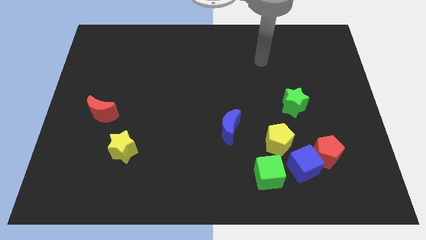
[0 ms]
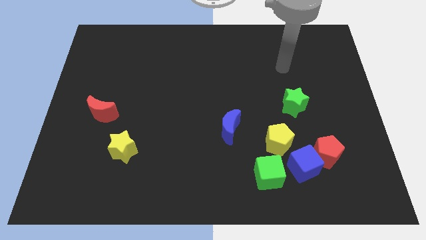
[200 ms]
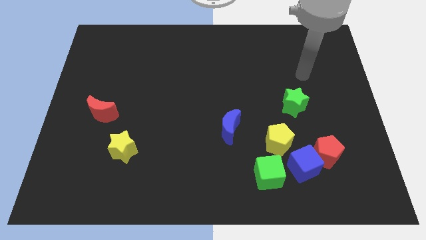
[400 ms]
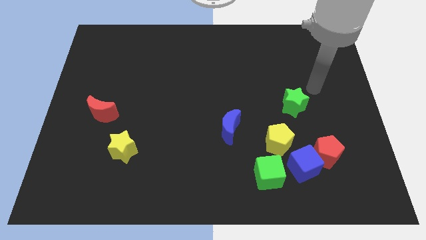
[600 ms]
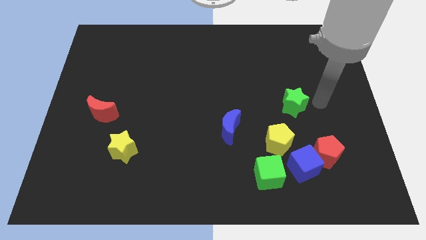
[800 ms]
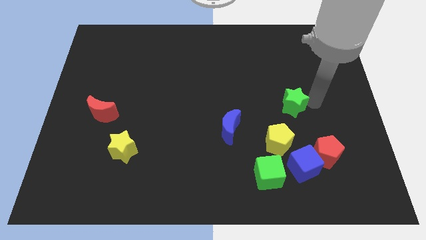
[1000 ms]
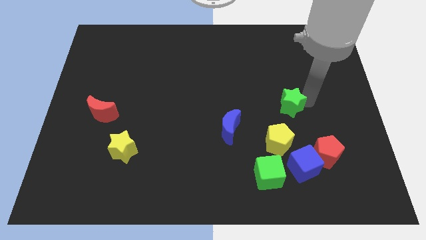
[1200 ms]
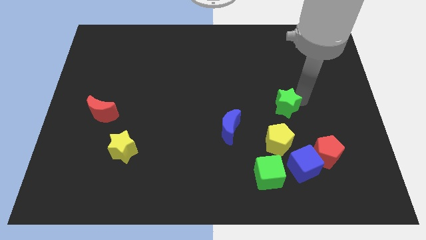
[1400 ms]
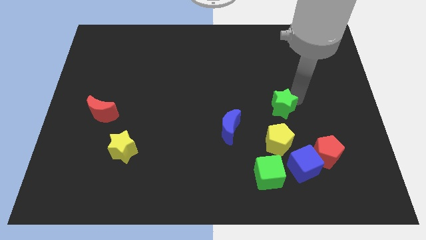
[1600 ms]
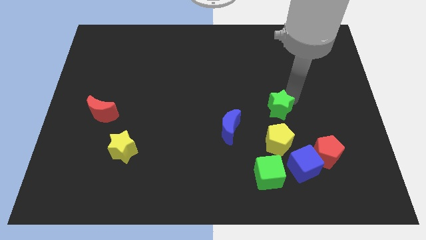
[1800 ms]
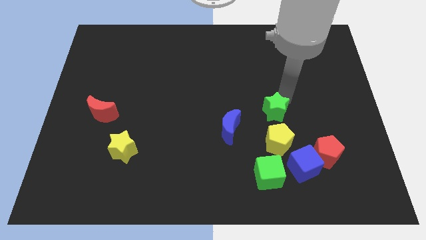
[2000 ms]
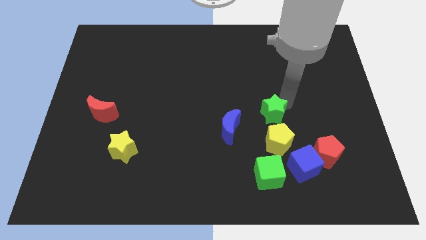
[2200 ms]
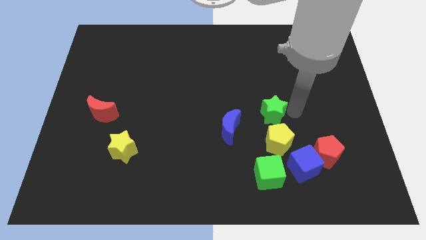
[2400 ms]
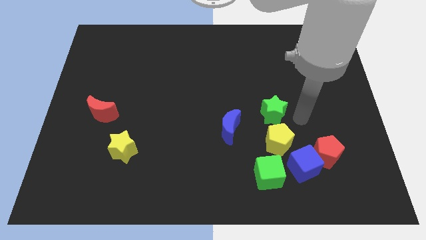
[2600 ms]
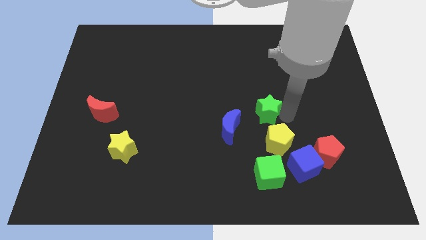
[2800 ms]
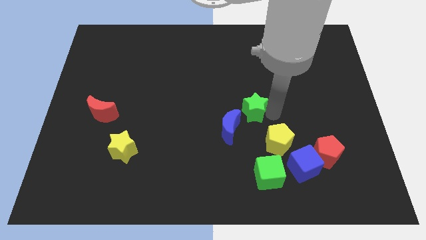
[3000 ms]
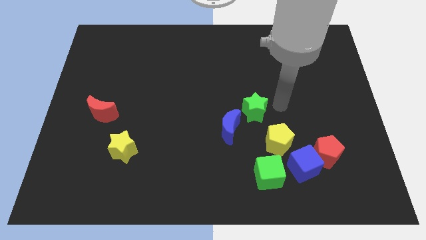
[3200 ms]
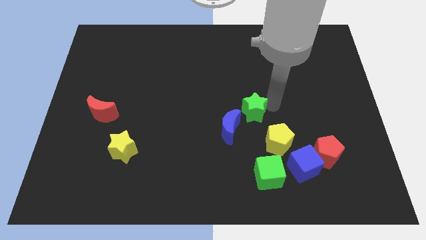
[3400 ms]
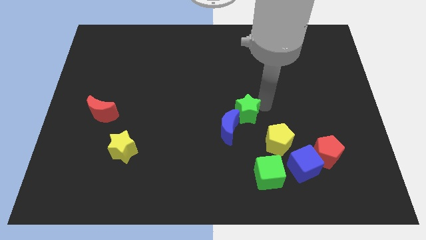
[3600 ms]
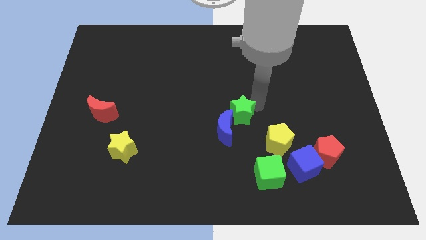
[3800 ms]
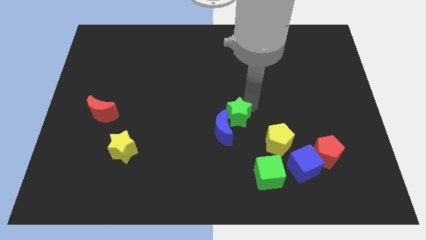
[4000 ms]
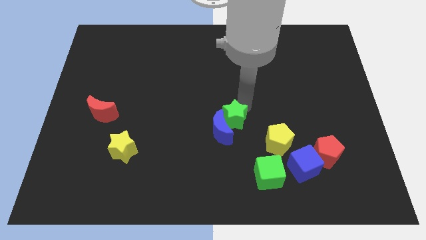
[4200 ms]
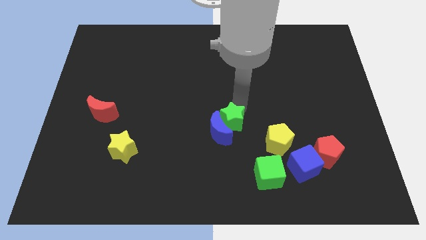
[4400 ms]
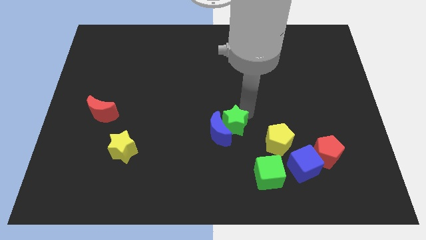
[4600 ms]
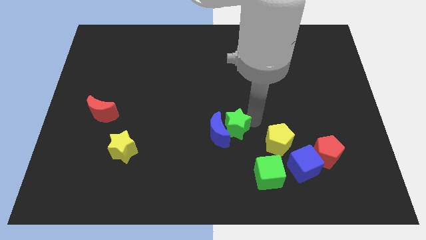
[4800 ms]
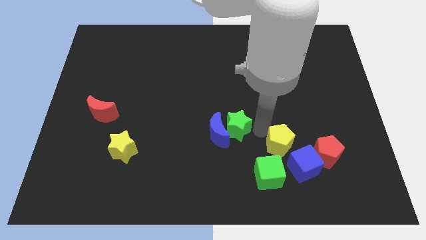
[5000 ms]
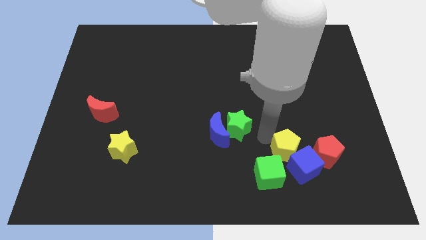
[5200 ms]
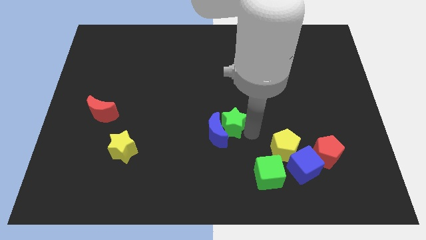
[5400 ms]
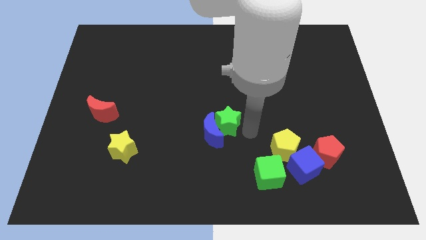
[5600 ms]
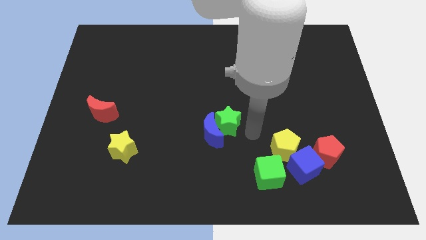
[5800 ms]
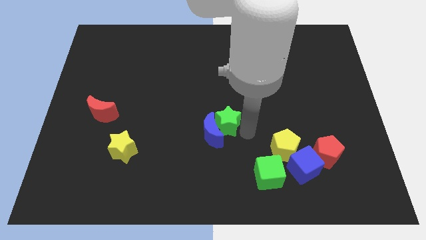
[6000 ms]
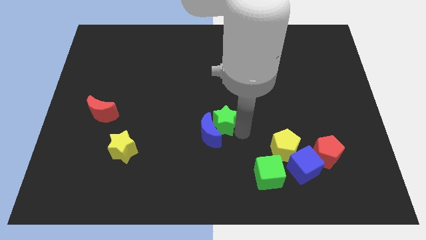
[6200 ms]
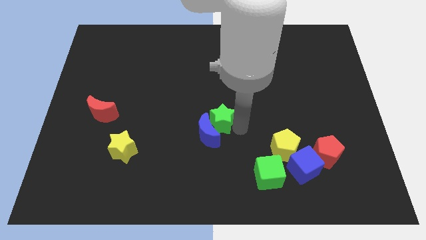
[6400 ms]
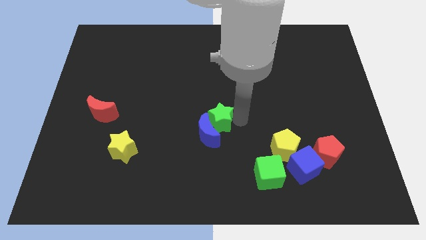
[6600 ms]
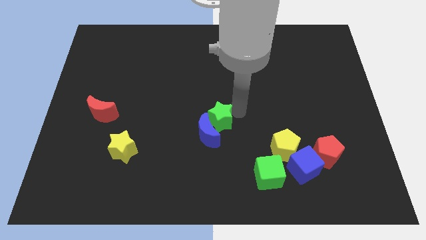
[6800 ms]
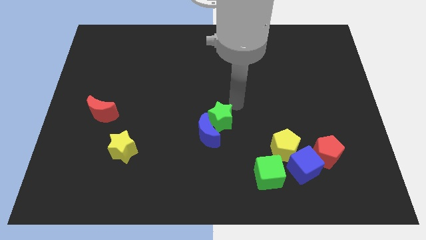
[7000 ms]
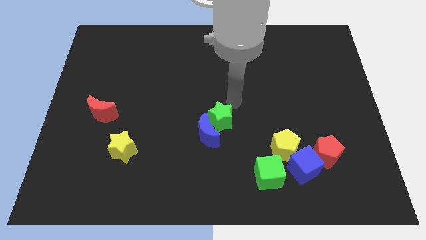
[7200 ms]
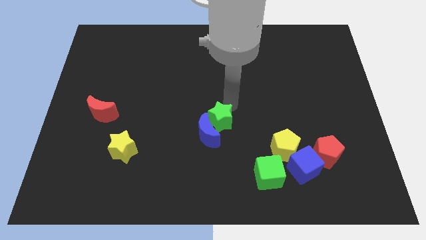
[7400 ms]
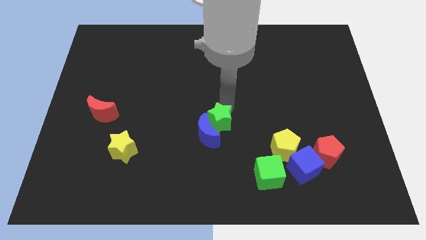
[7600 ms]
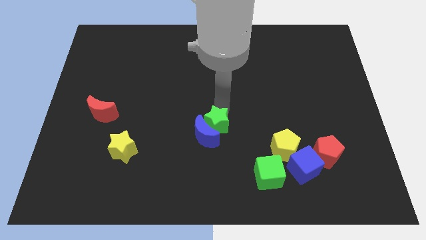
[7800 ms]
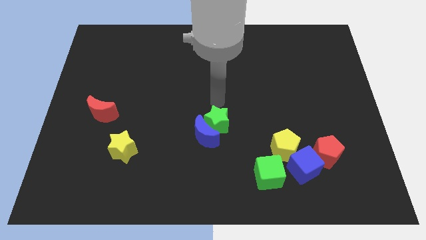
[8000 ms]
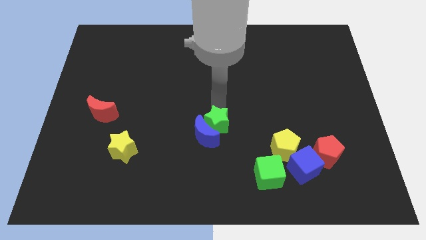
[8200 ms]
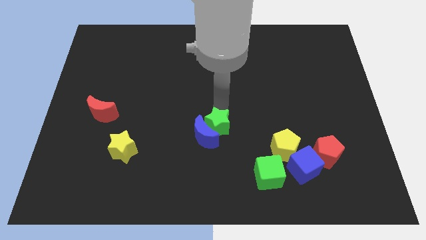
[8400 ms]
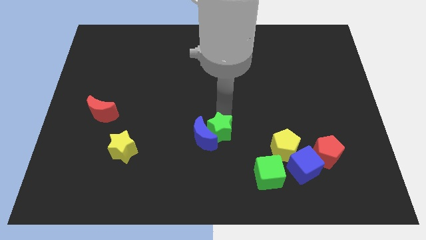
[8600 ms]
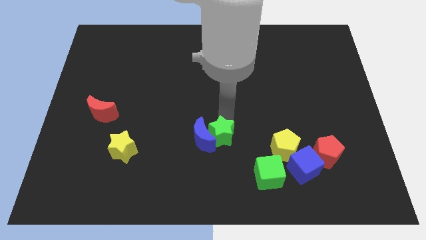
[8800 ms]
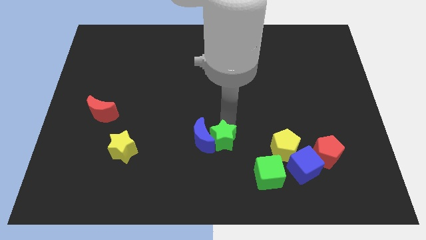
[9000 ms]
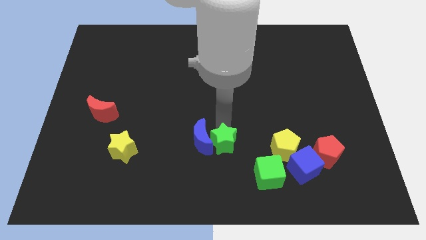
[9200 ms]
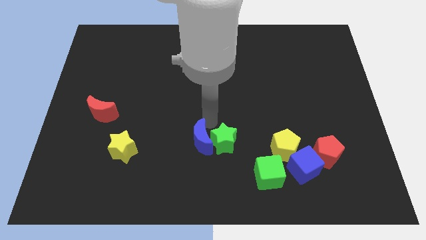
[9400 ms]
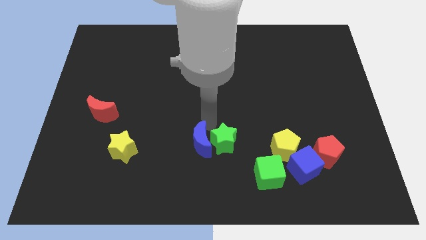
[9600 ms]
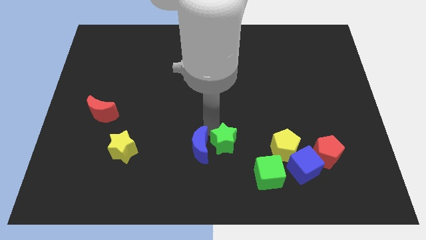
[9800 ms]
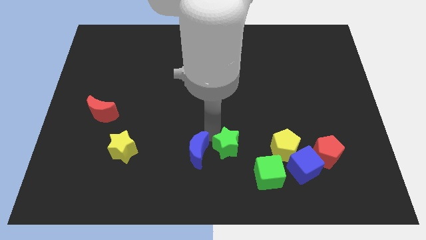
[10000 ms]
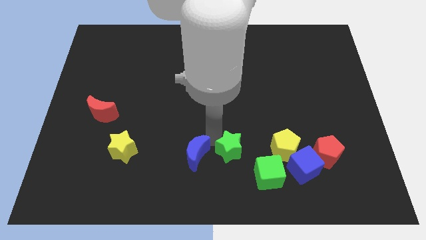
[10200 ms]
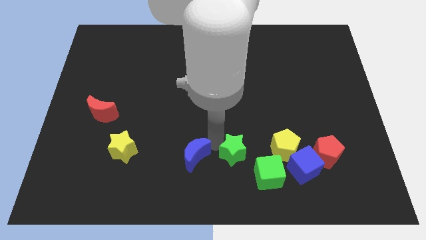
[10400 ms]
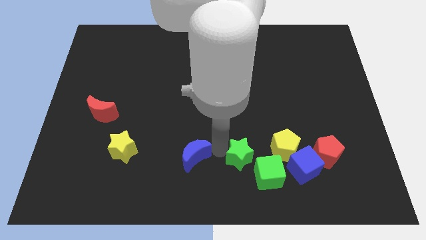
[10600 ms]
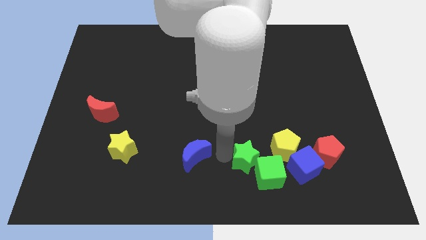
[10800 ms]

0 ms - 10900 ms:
slide the green star towards the green cube

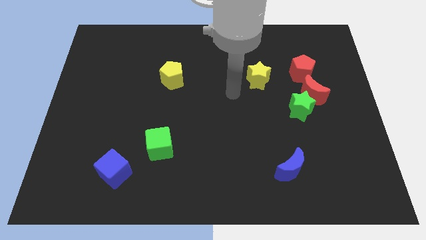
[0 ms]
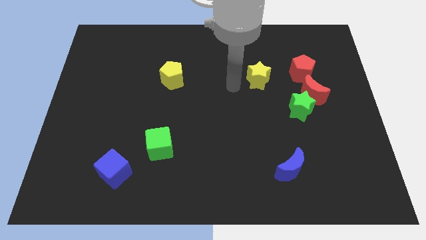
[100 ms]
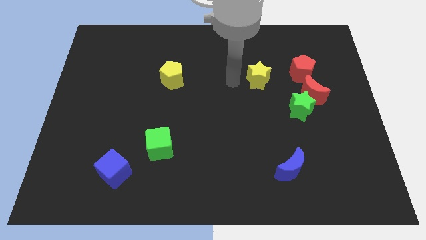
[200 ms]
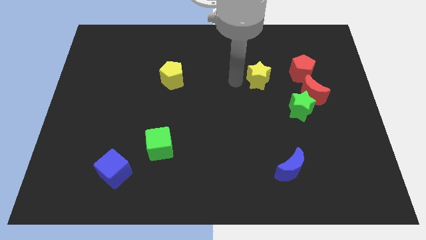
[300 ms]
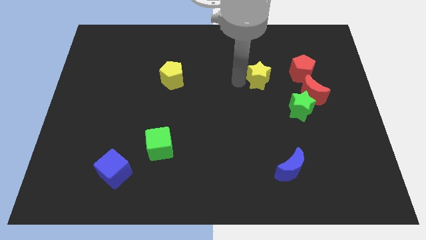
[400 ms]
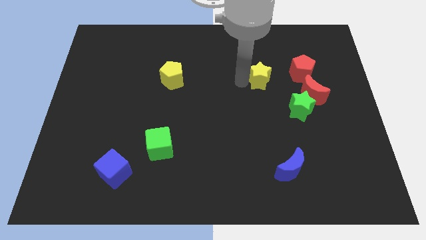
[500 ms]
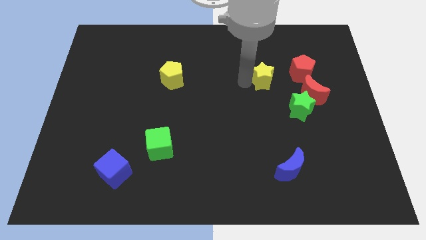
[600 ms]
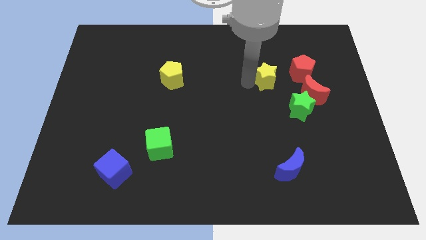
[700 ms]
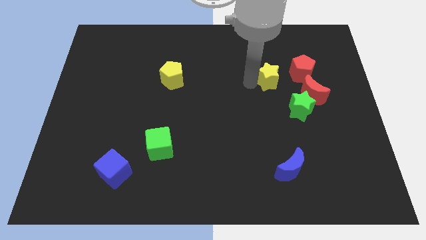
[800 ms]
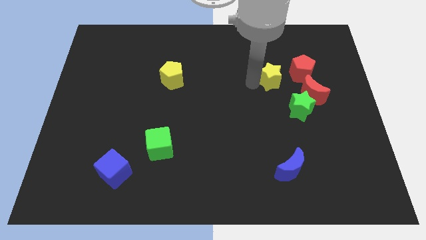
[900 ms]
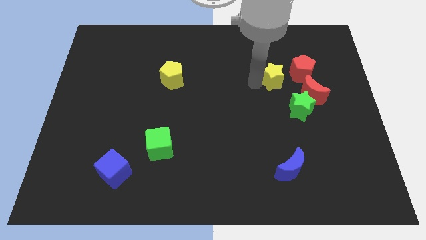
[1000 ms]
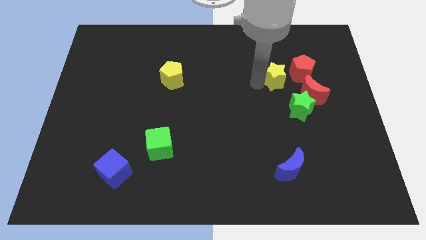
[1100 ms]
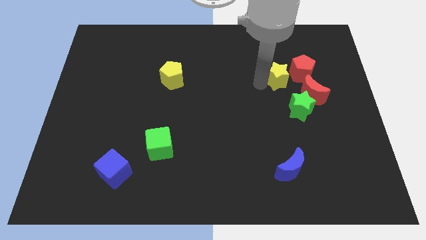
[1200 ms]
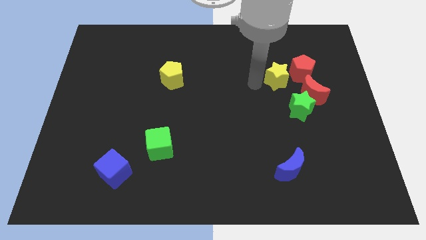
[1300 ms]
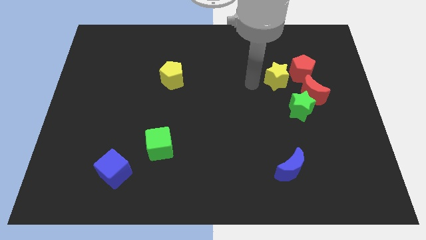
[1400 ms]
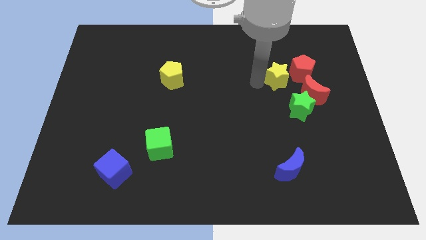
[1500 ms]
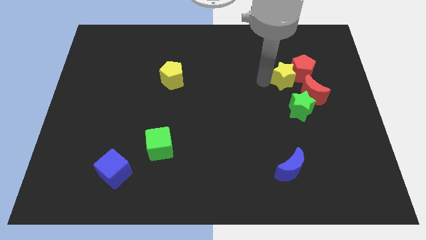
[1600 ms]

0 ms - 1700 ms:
slide the yellow star close to the red pentagon

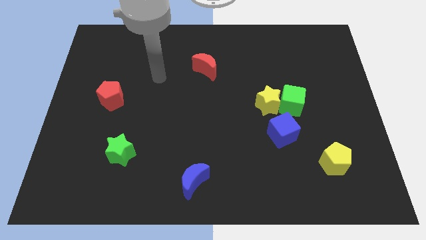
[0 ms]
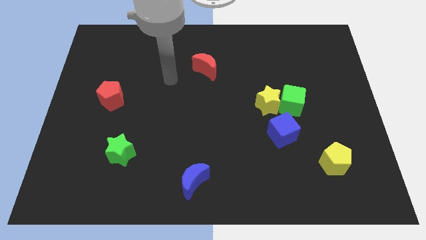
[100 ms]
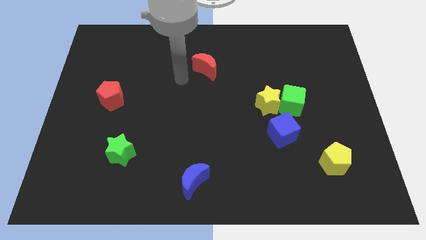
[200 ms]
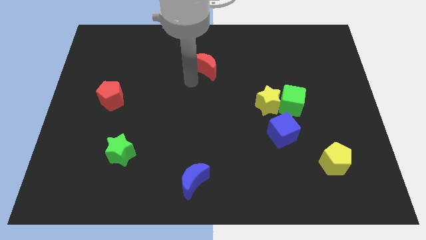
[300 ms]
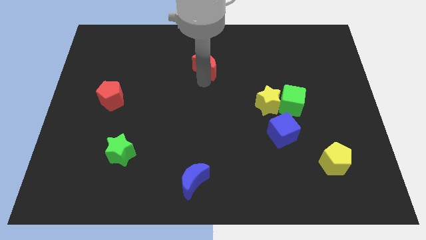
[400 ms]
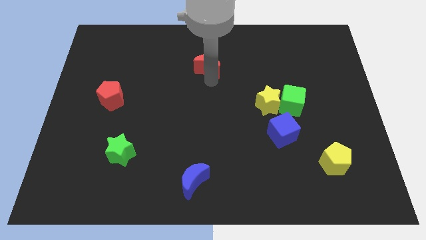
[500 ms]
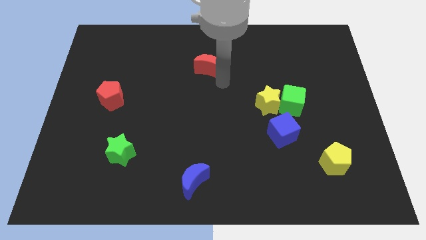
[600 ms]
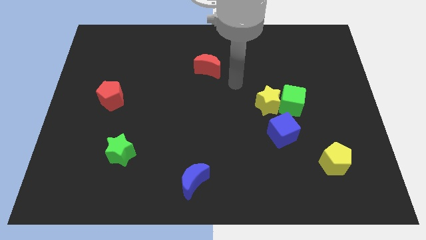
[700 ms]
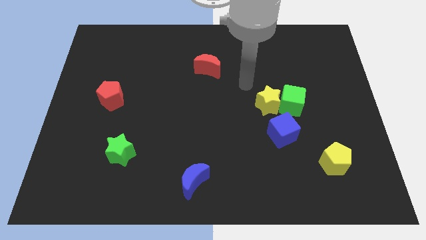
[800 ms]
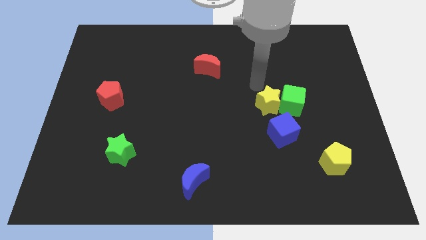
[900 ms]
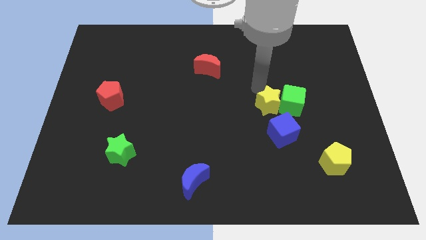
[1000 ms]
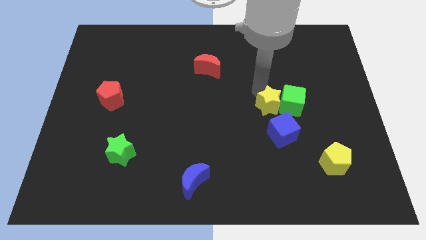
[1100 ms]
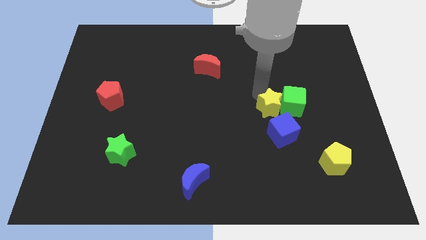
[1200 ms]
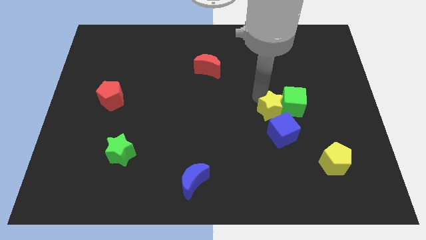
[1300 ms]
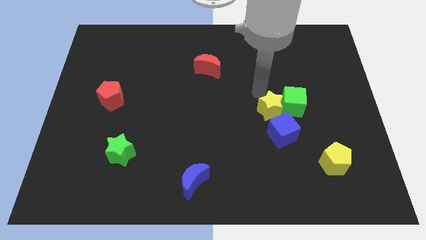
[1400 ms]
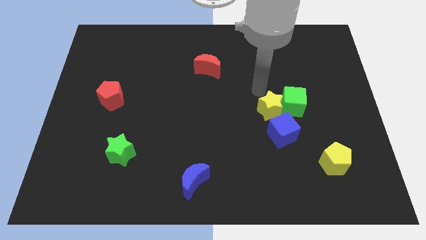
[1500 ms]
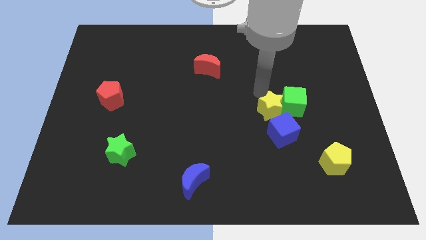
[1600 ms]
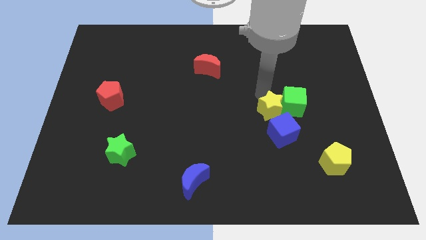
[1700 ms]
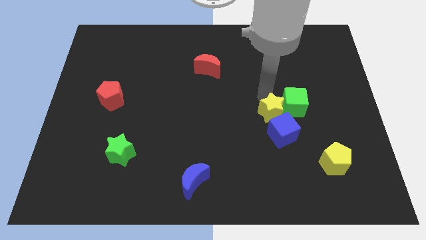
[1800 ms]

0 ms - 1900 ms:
move the yellow star close to the blue cube
